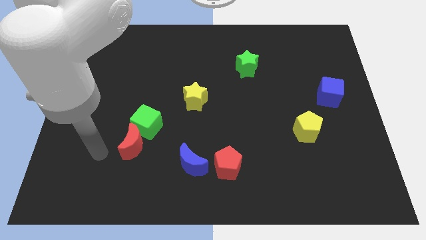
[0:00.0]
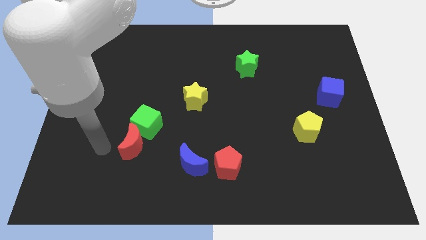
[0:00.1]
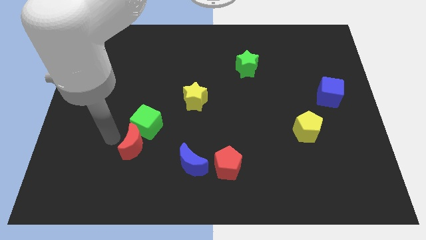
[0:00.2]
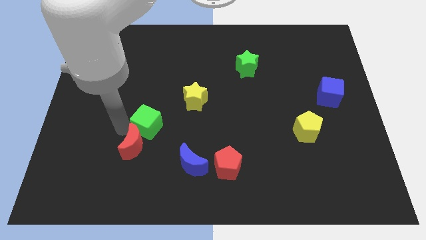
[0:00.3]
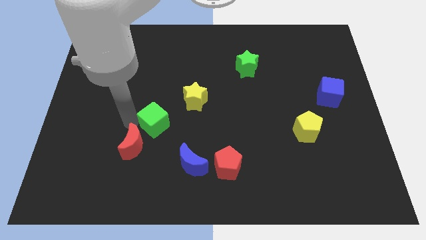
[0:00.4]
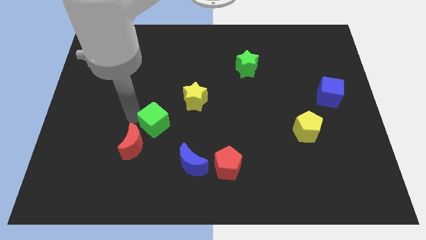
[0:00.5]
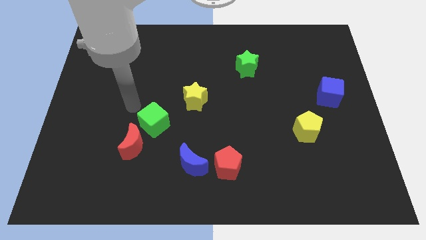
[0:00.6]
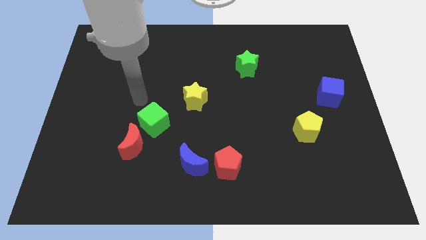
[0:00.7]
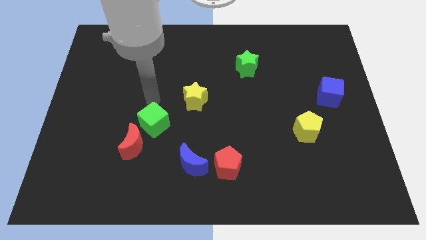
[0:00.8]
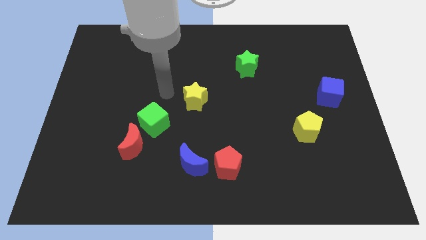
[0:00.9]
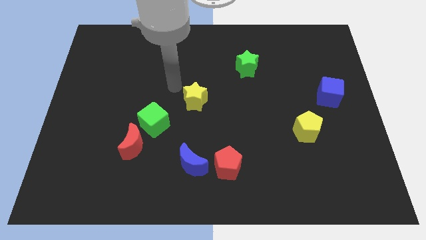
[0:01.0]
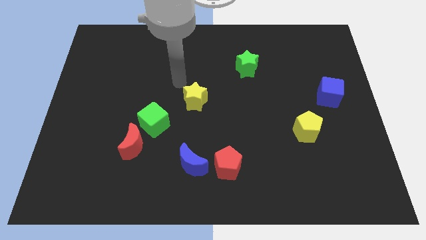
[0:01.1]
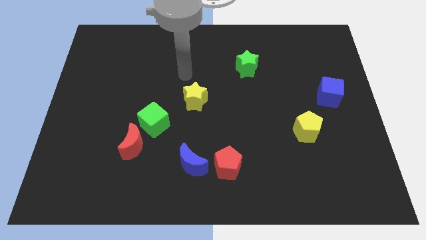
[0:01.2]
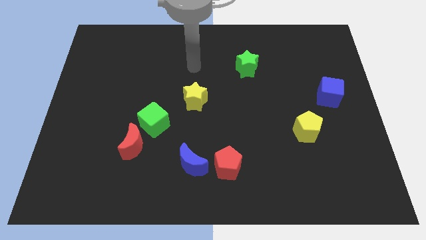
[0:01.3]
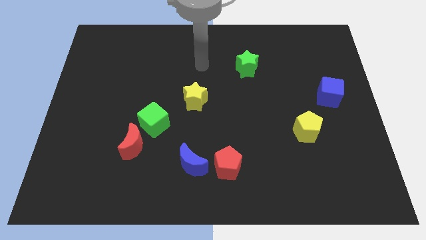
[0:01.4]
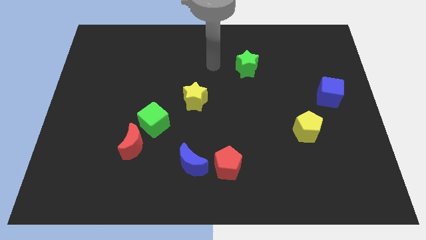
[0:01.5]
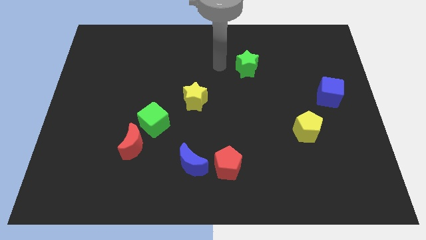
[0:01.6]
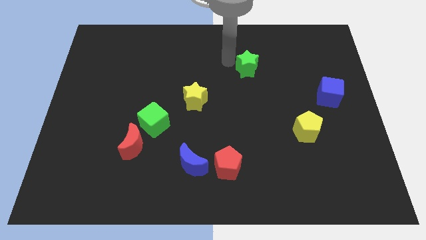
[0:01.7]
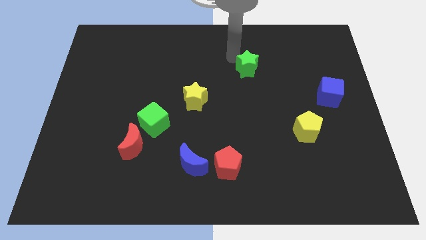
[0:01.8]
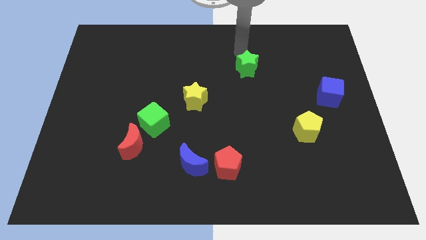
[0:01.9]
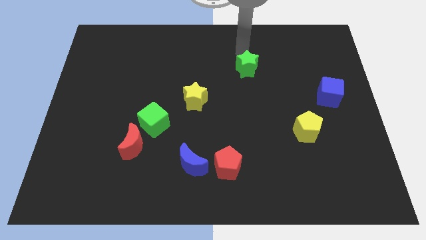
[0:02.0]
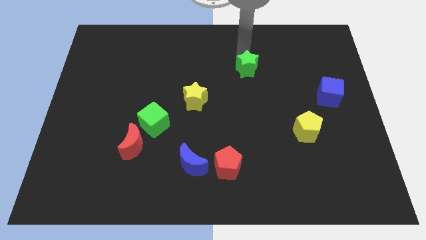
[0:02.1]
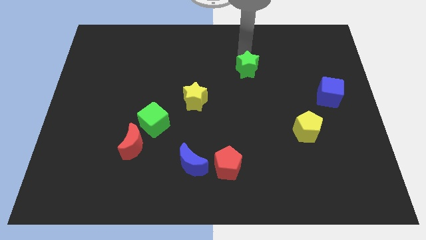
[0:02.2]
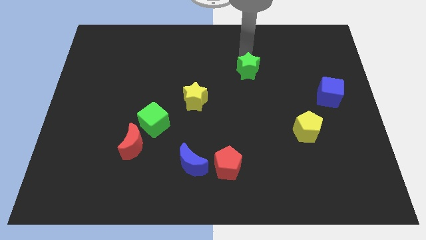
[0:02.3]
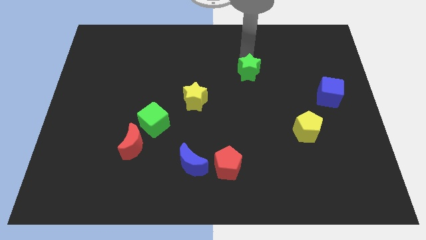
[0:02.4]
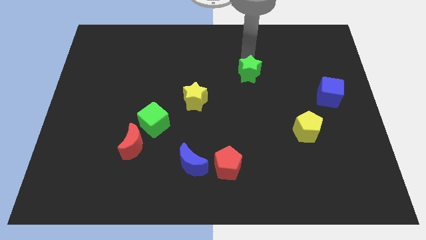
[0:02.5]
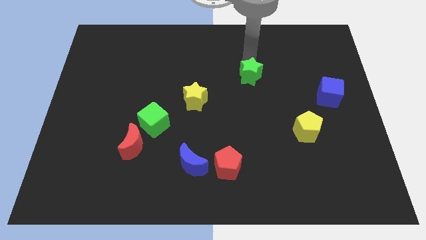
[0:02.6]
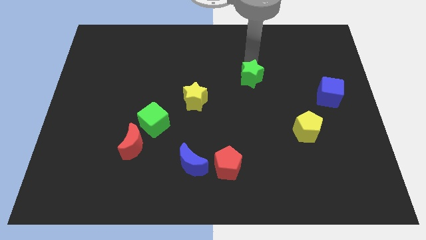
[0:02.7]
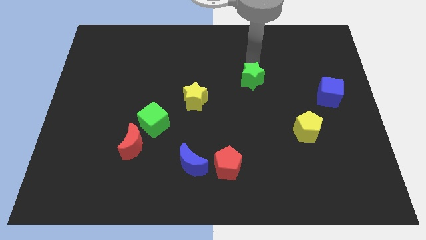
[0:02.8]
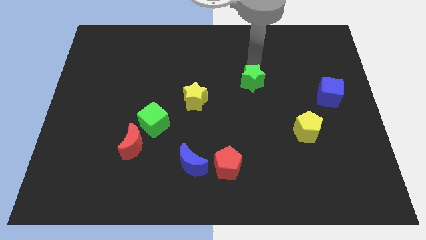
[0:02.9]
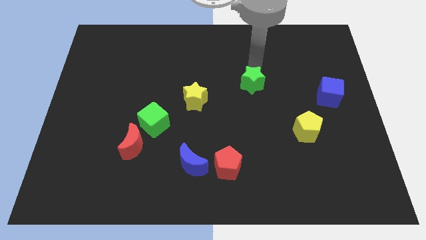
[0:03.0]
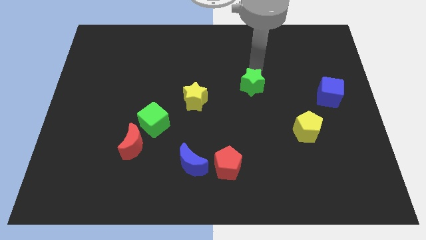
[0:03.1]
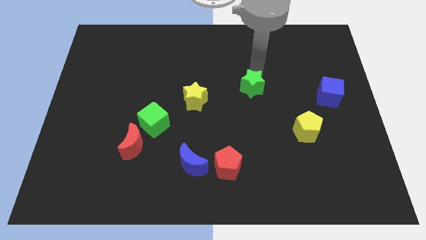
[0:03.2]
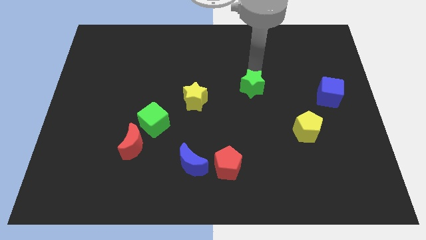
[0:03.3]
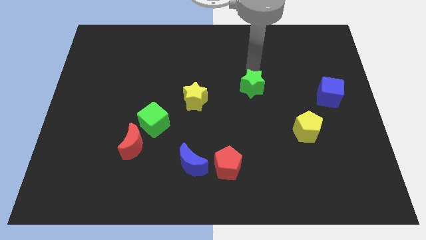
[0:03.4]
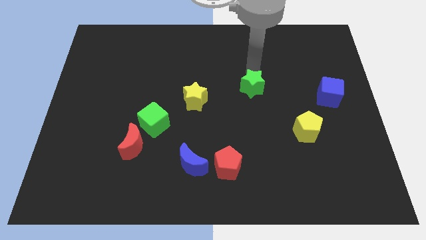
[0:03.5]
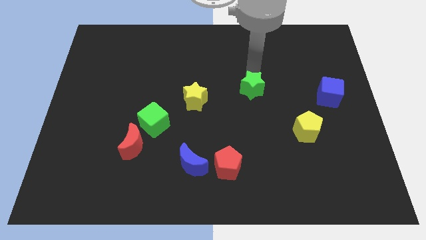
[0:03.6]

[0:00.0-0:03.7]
push the green star downwards a bit

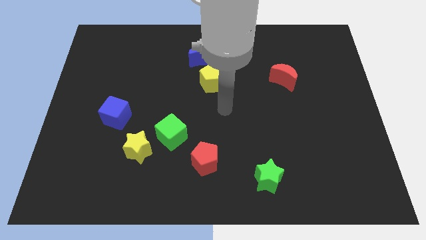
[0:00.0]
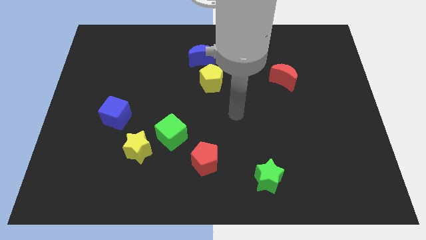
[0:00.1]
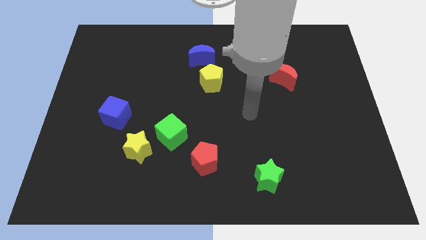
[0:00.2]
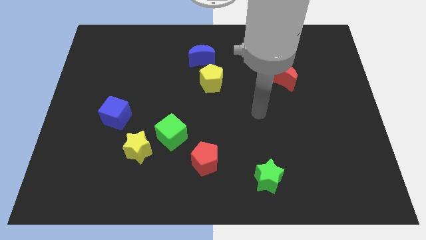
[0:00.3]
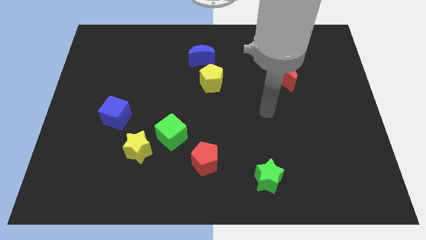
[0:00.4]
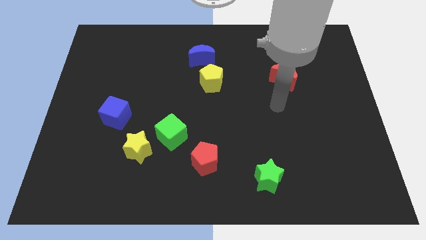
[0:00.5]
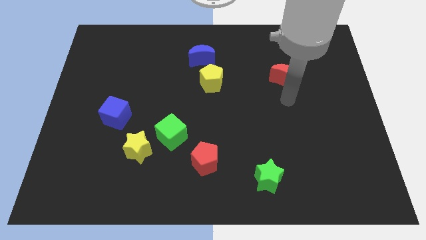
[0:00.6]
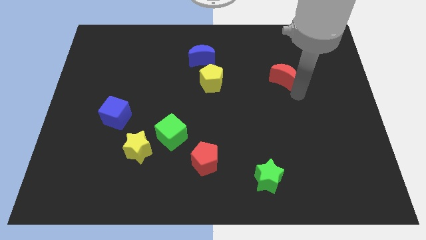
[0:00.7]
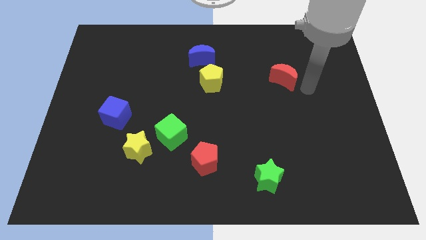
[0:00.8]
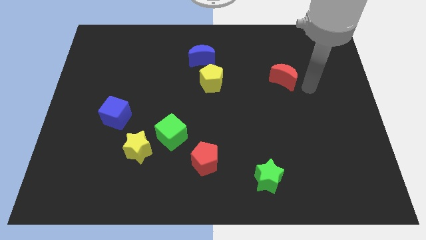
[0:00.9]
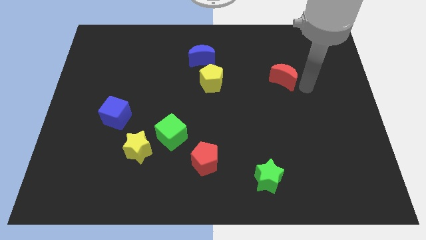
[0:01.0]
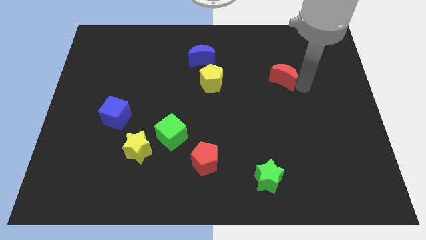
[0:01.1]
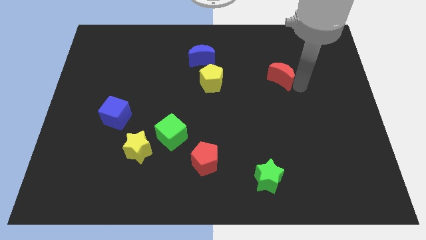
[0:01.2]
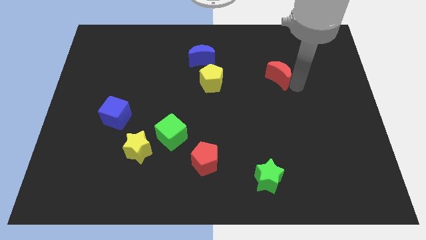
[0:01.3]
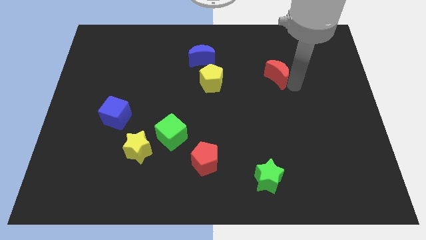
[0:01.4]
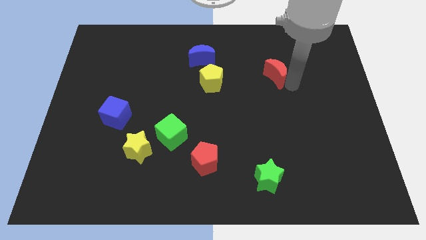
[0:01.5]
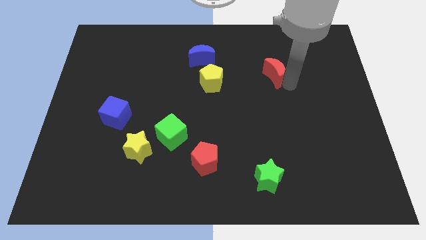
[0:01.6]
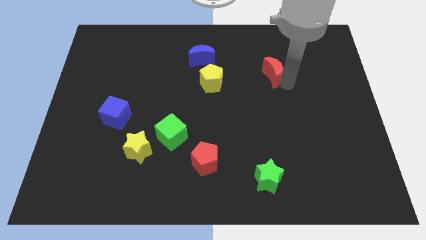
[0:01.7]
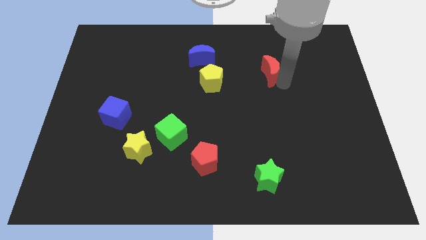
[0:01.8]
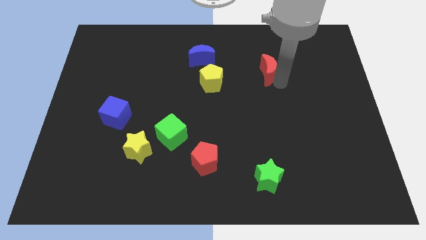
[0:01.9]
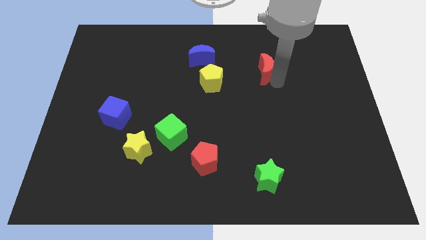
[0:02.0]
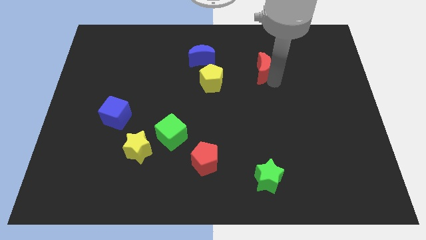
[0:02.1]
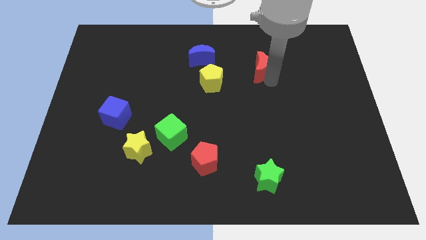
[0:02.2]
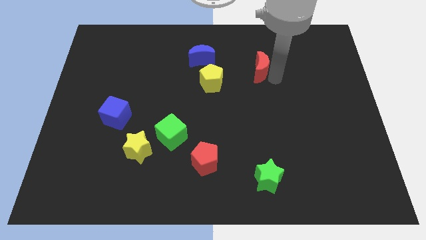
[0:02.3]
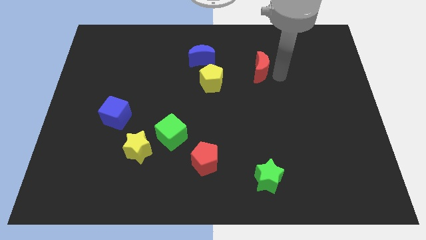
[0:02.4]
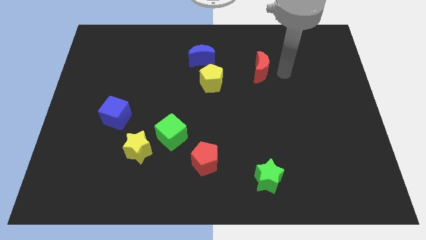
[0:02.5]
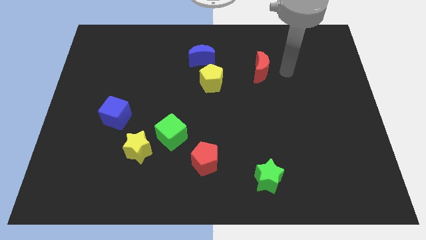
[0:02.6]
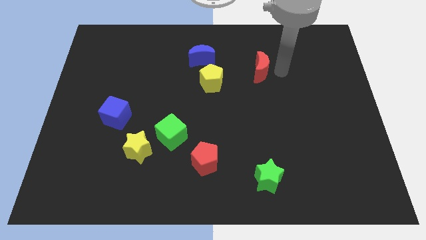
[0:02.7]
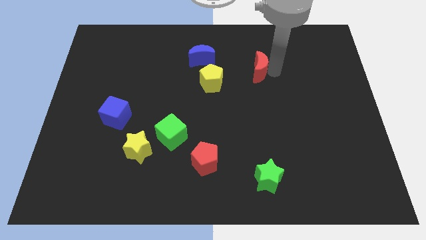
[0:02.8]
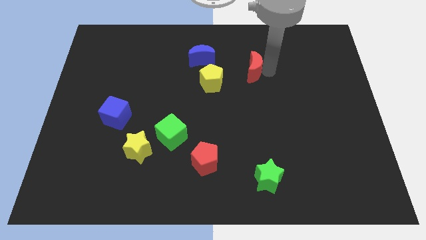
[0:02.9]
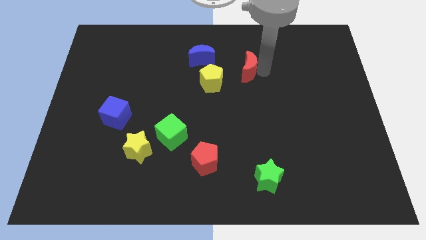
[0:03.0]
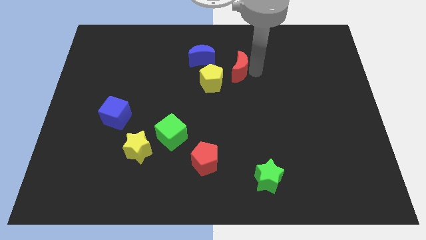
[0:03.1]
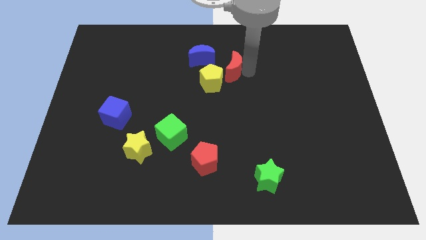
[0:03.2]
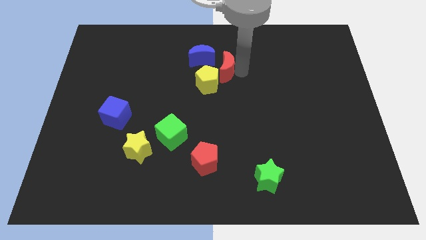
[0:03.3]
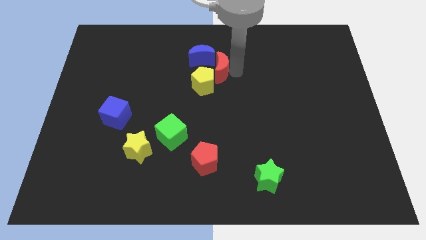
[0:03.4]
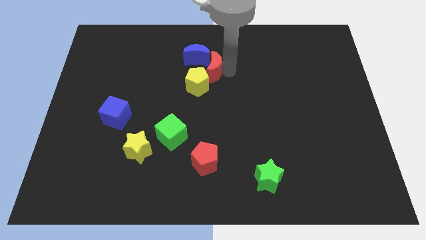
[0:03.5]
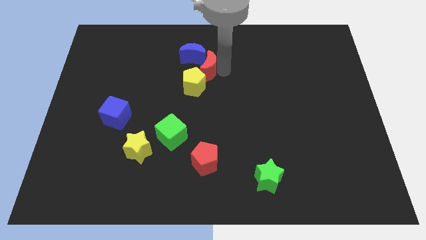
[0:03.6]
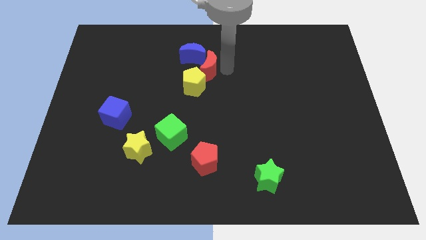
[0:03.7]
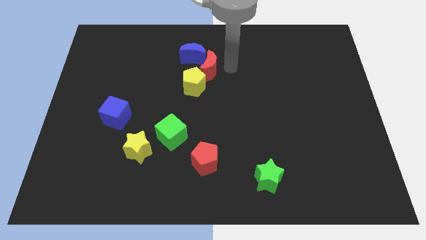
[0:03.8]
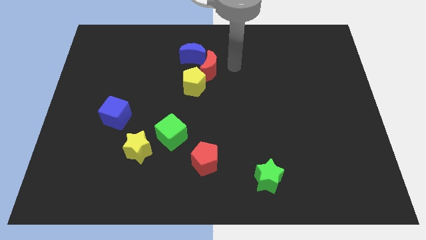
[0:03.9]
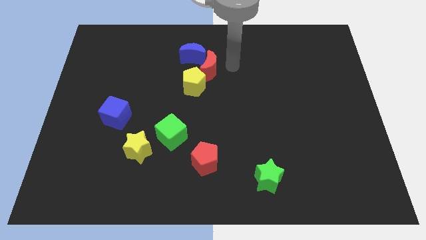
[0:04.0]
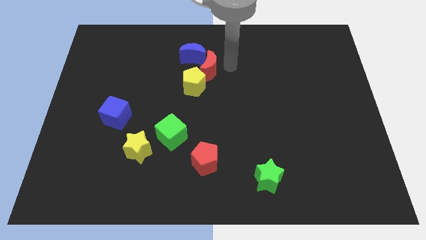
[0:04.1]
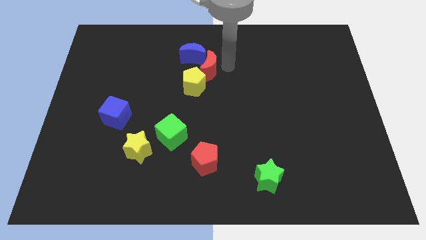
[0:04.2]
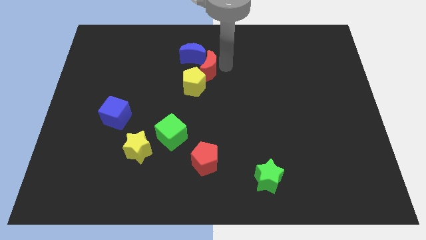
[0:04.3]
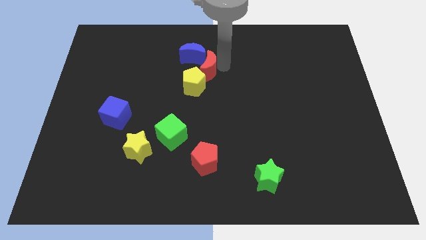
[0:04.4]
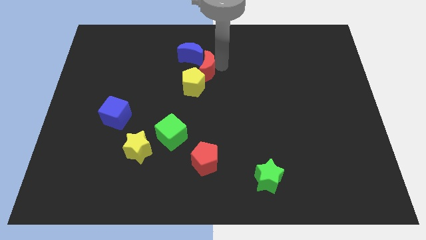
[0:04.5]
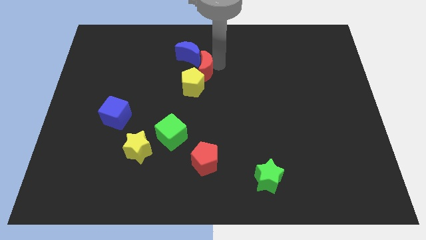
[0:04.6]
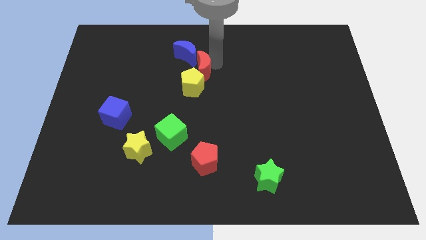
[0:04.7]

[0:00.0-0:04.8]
push the red moon left
